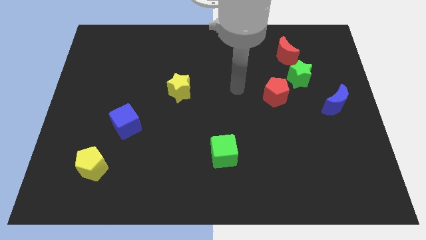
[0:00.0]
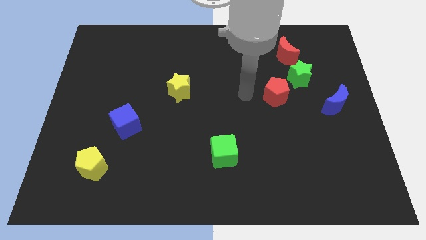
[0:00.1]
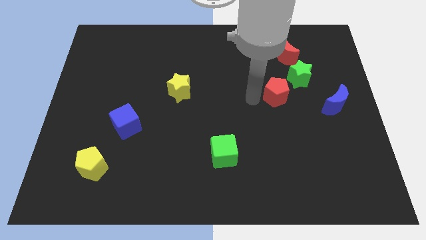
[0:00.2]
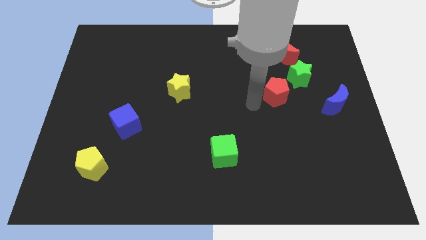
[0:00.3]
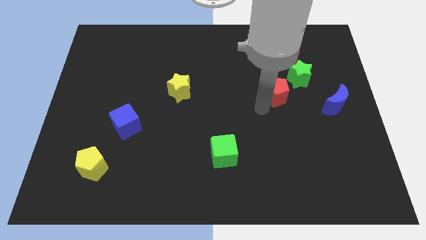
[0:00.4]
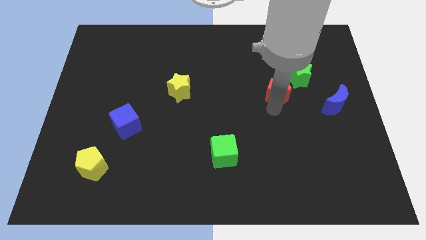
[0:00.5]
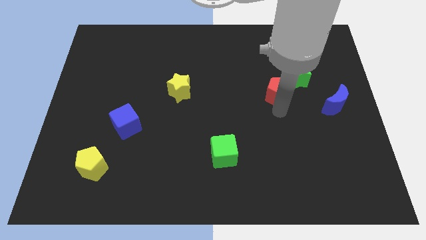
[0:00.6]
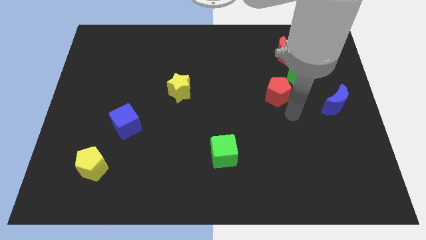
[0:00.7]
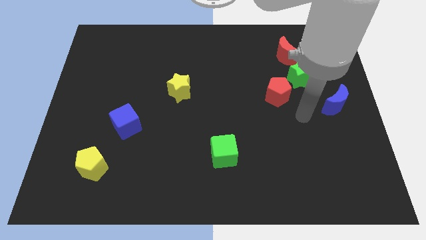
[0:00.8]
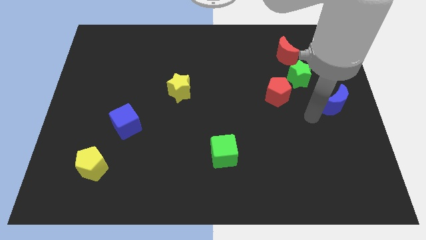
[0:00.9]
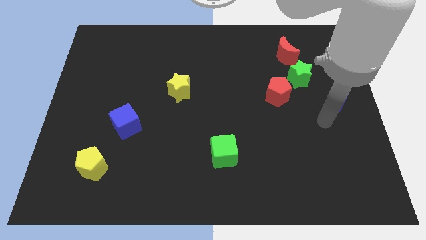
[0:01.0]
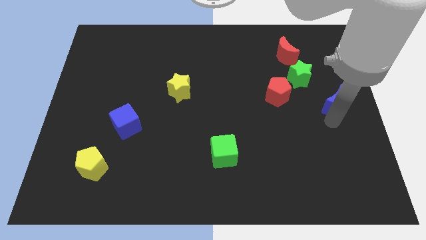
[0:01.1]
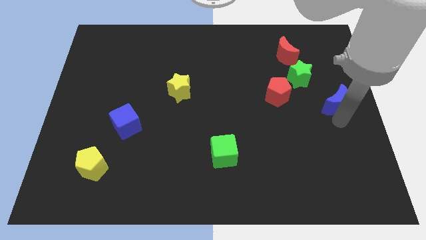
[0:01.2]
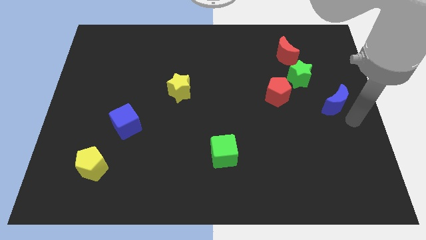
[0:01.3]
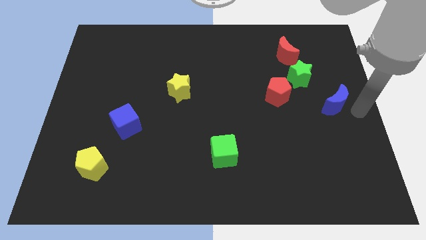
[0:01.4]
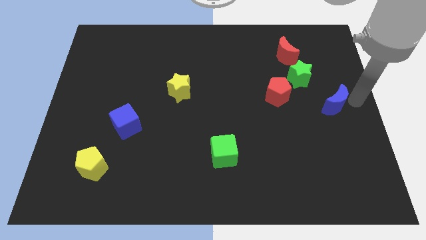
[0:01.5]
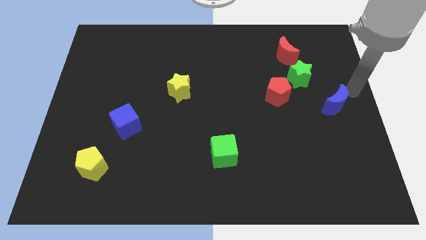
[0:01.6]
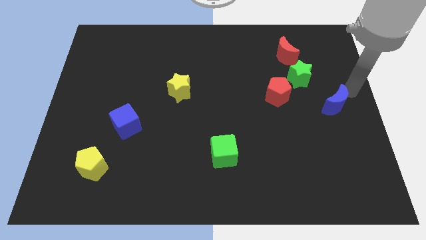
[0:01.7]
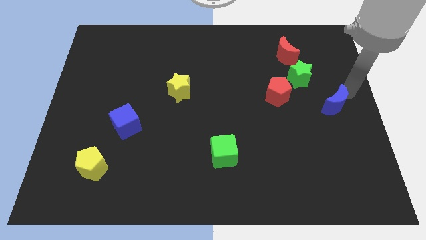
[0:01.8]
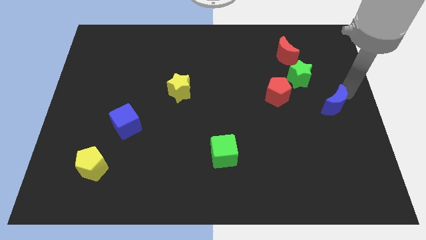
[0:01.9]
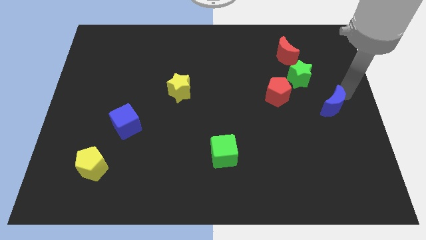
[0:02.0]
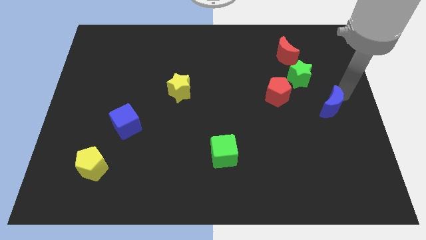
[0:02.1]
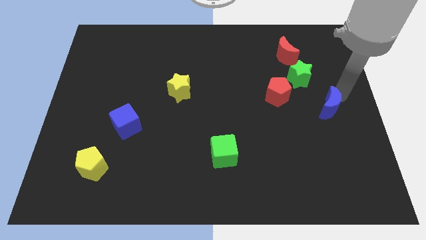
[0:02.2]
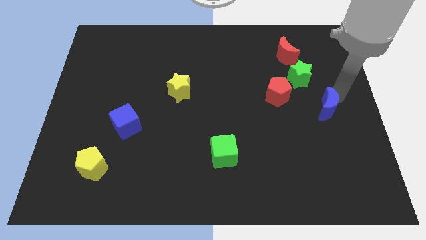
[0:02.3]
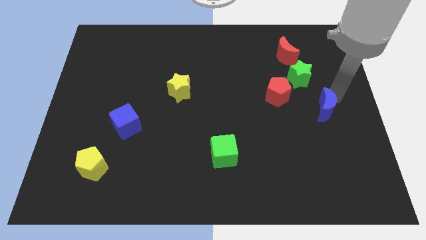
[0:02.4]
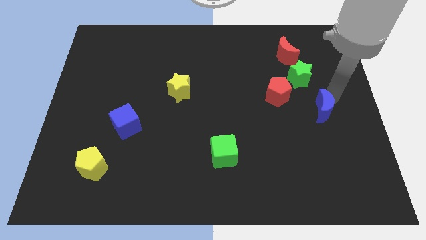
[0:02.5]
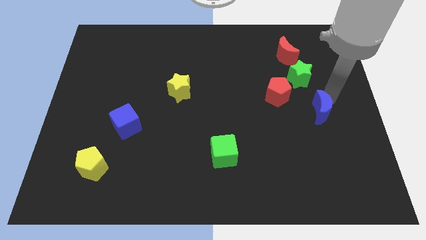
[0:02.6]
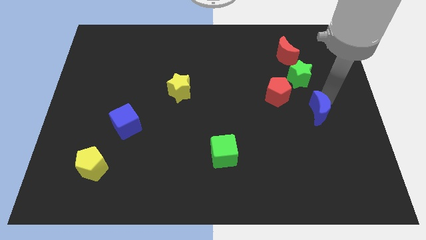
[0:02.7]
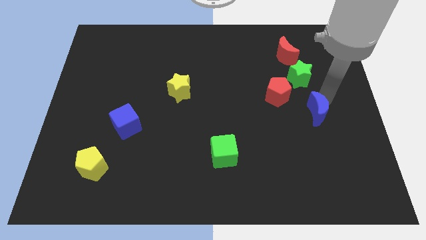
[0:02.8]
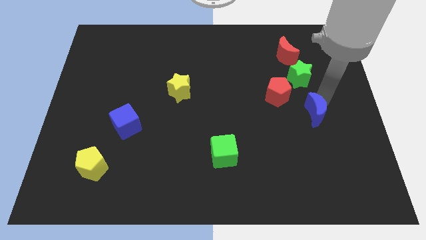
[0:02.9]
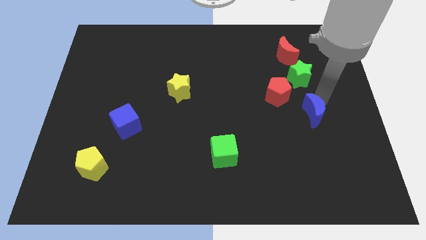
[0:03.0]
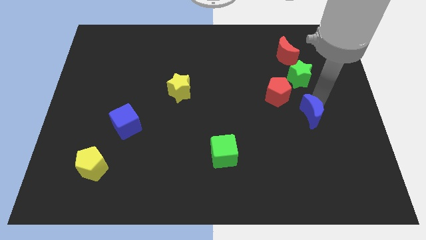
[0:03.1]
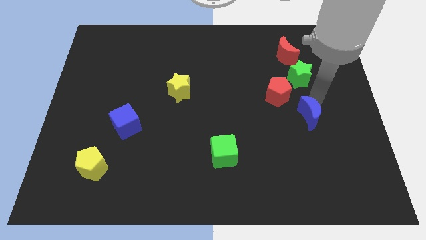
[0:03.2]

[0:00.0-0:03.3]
slide the blue moon a little bit down and left diagonally

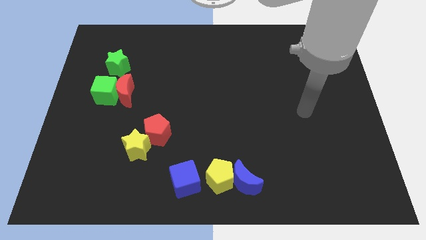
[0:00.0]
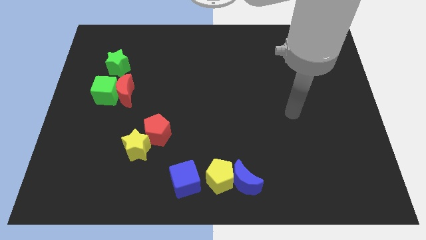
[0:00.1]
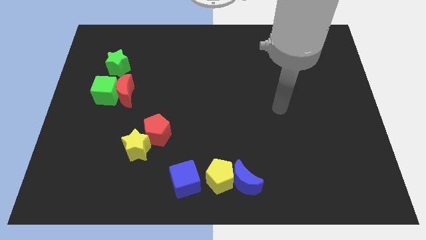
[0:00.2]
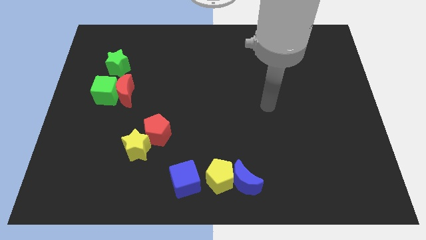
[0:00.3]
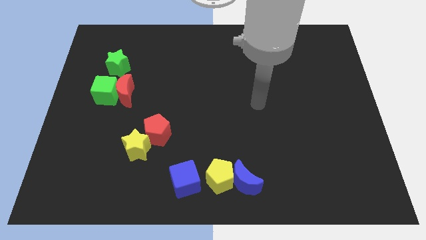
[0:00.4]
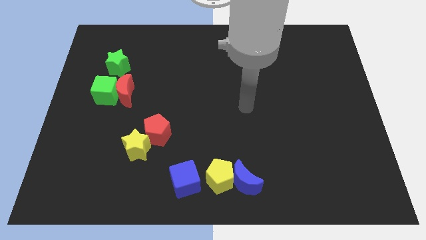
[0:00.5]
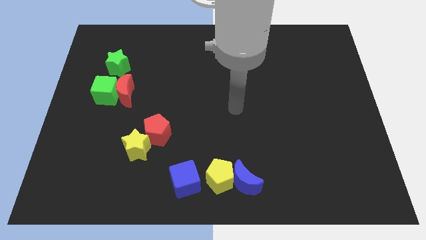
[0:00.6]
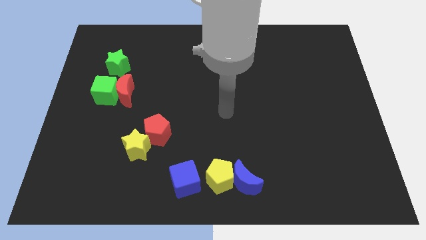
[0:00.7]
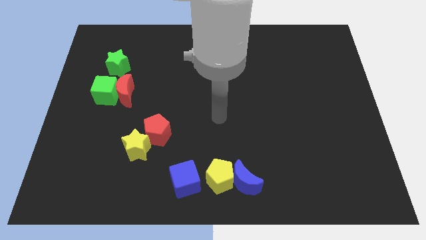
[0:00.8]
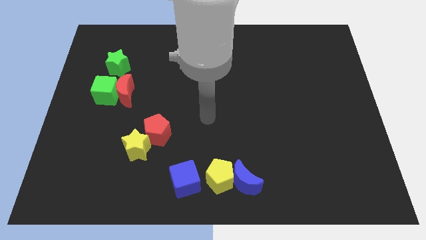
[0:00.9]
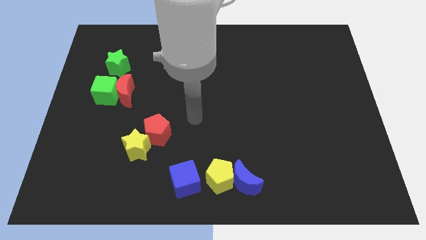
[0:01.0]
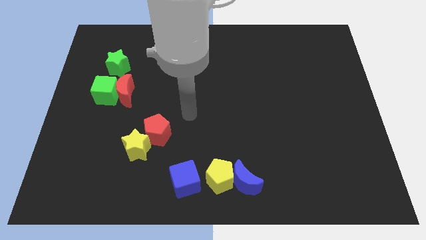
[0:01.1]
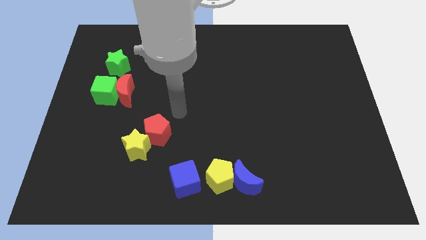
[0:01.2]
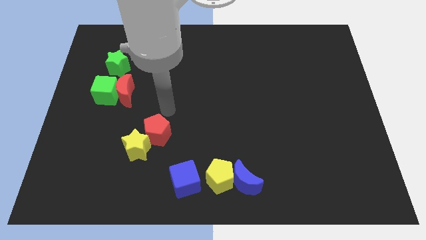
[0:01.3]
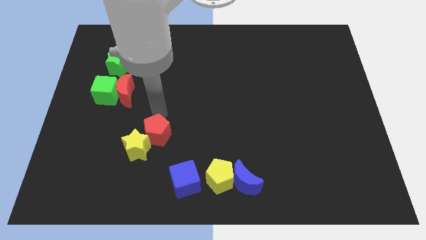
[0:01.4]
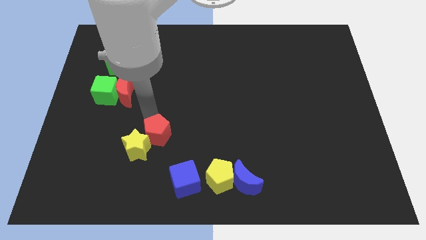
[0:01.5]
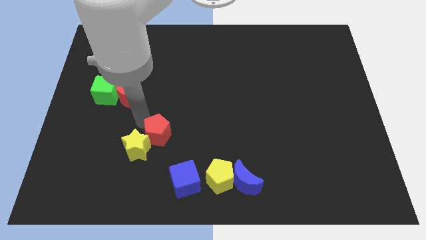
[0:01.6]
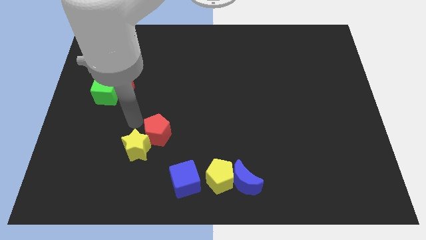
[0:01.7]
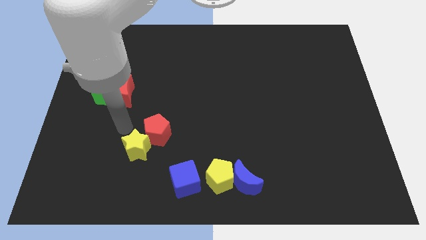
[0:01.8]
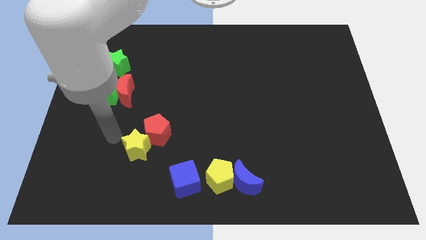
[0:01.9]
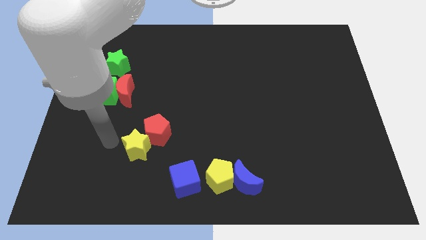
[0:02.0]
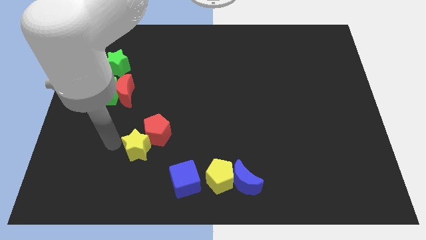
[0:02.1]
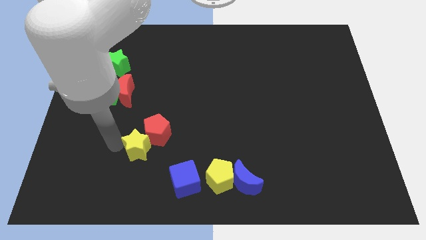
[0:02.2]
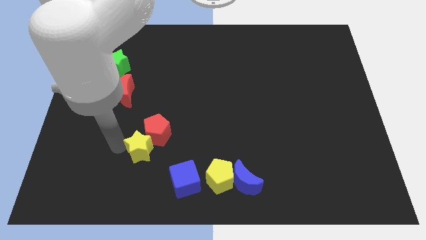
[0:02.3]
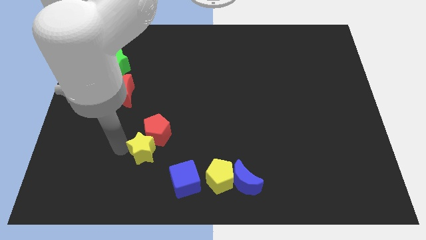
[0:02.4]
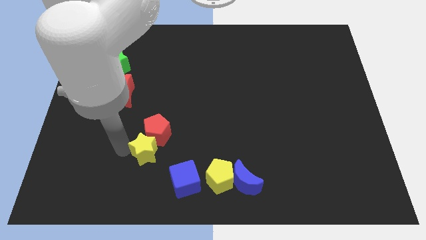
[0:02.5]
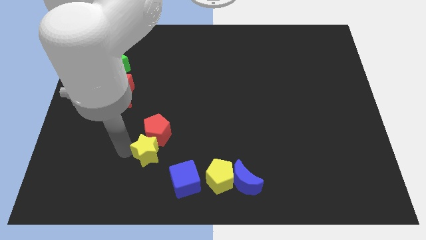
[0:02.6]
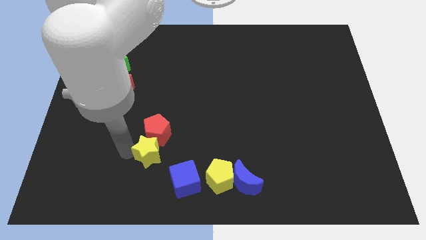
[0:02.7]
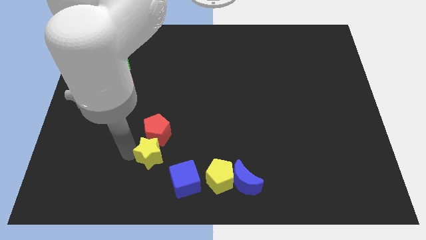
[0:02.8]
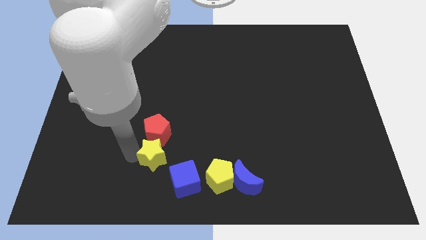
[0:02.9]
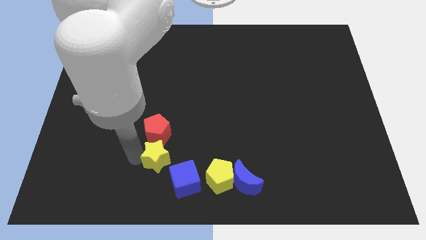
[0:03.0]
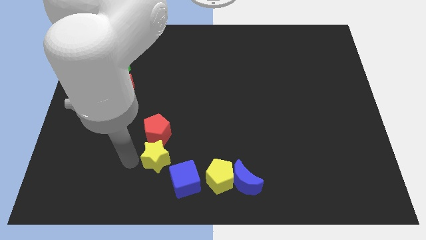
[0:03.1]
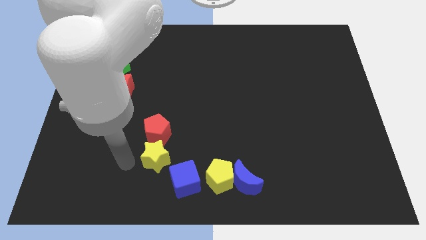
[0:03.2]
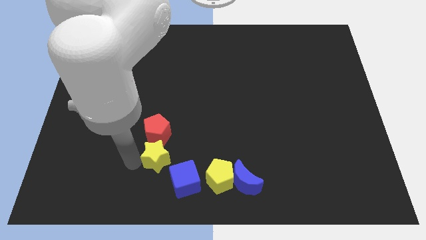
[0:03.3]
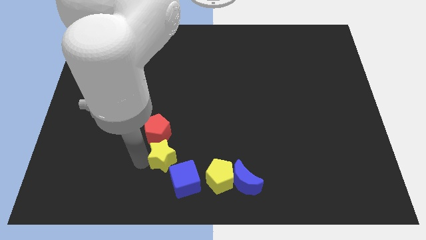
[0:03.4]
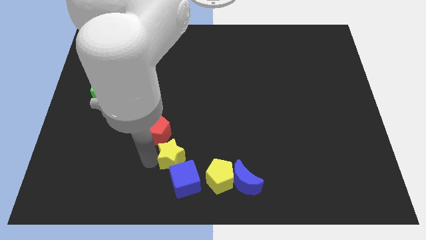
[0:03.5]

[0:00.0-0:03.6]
move the yellow star somewhat right

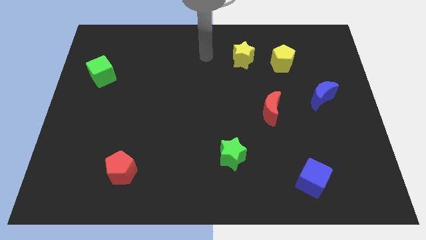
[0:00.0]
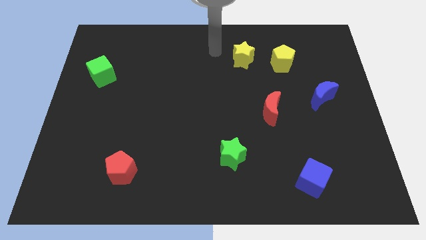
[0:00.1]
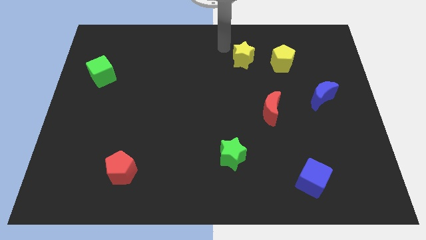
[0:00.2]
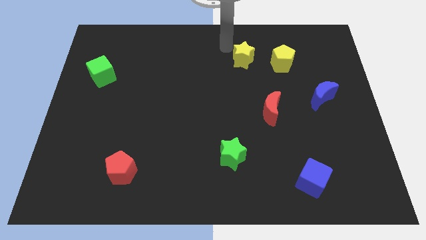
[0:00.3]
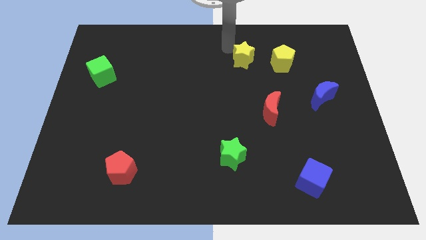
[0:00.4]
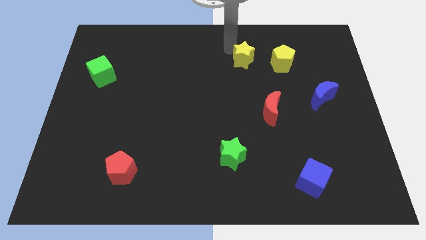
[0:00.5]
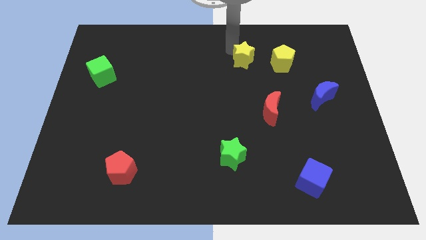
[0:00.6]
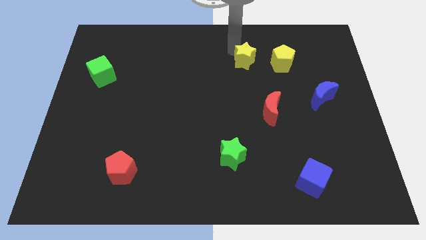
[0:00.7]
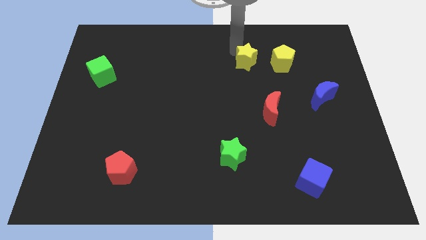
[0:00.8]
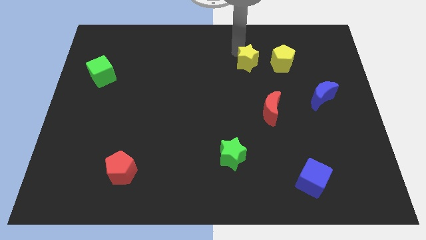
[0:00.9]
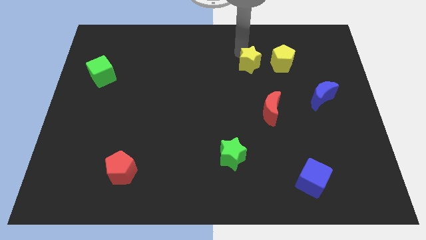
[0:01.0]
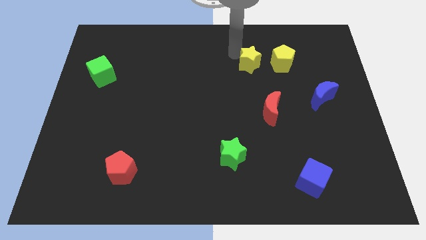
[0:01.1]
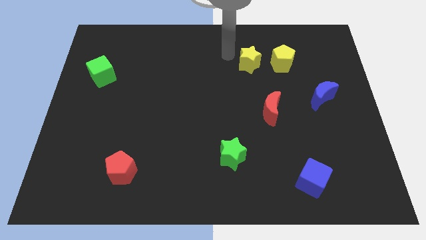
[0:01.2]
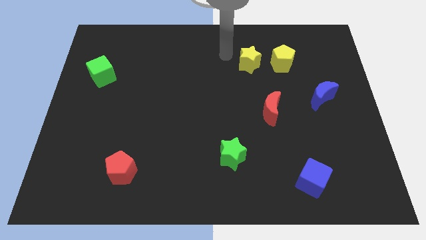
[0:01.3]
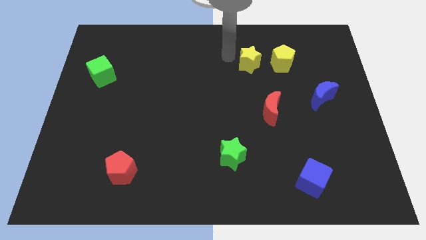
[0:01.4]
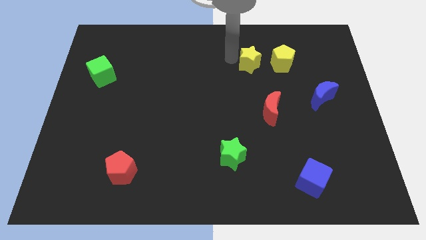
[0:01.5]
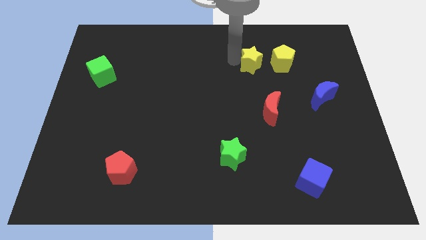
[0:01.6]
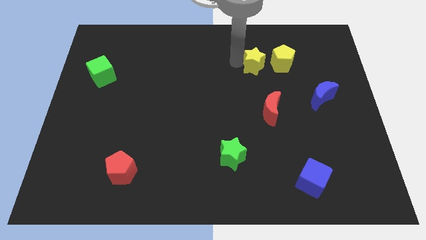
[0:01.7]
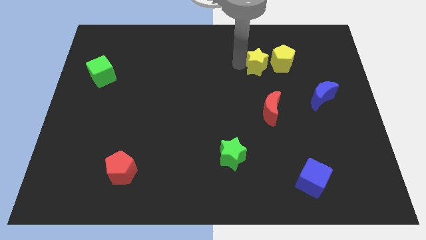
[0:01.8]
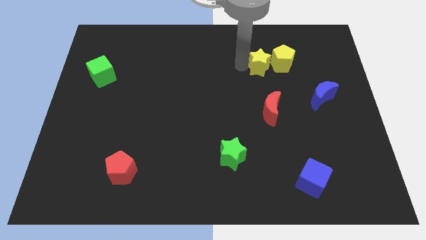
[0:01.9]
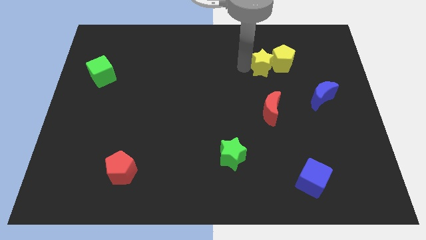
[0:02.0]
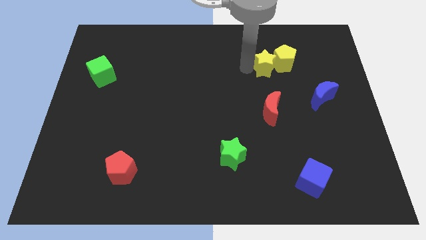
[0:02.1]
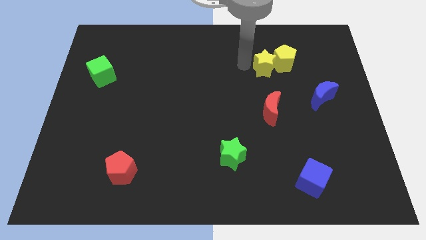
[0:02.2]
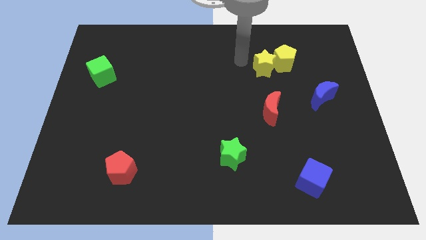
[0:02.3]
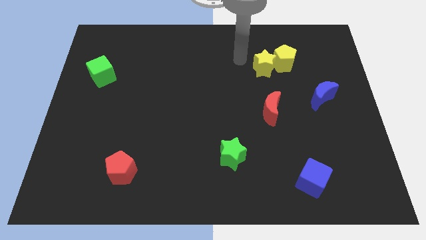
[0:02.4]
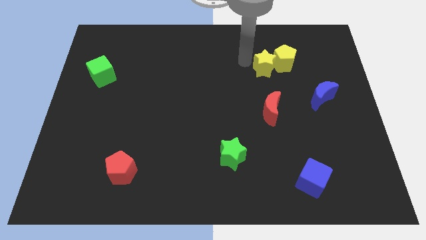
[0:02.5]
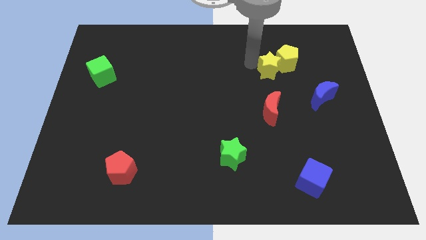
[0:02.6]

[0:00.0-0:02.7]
slide the yellow star downwards and to the right diagonally slightly
